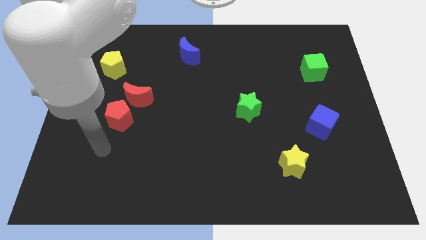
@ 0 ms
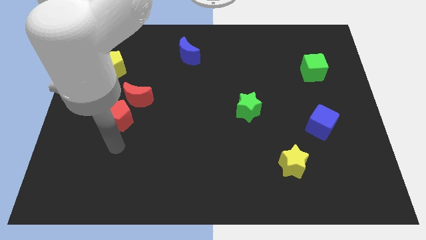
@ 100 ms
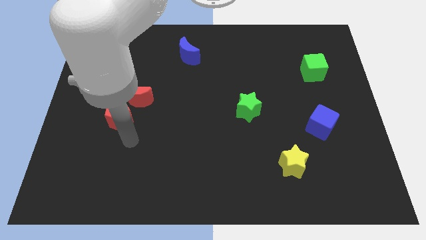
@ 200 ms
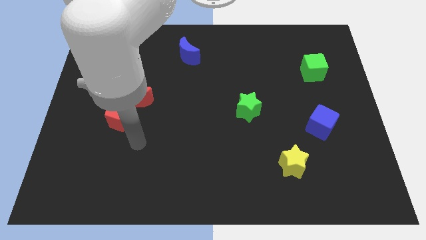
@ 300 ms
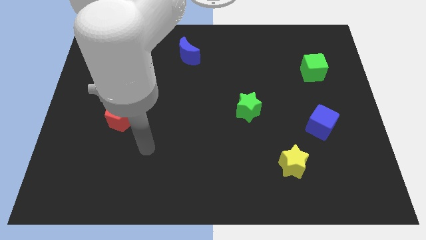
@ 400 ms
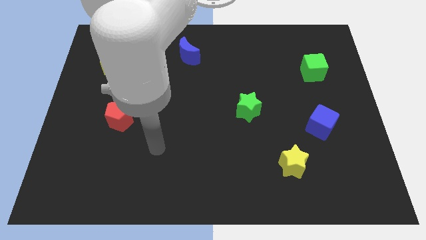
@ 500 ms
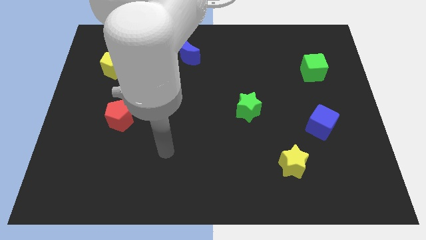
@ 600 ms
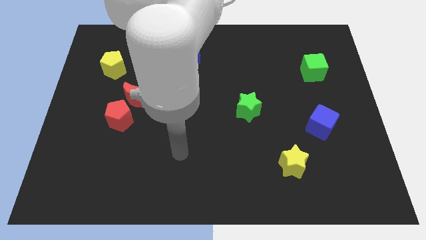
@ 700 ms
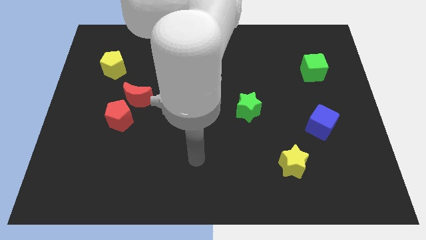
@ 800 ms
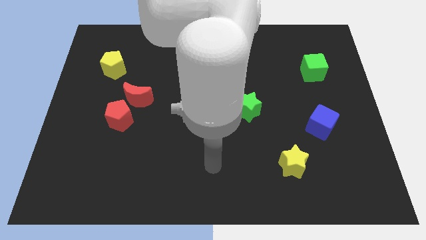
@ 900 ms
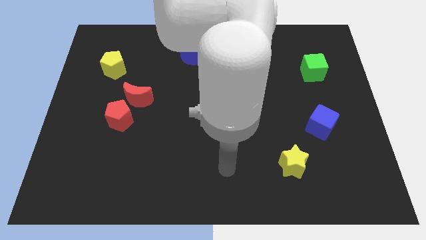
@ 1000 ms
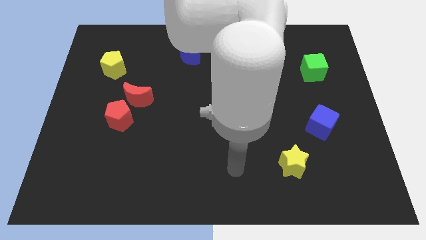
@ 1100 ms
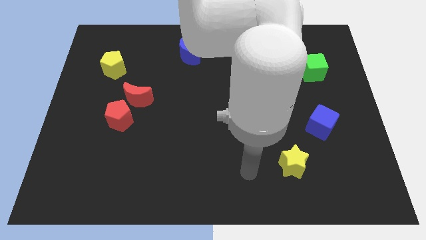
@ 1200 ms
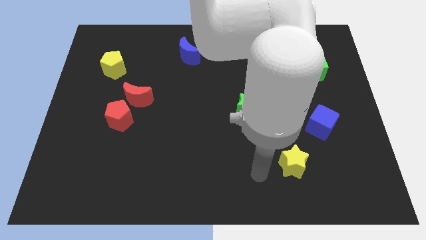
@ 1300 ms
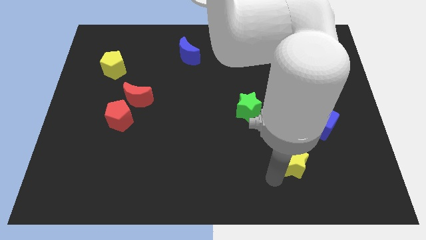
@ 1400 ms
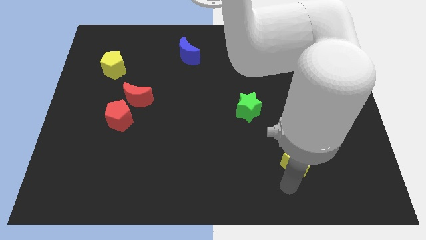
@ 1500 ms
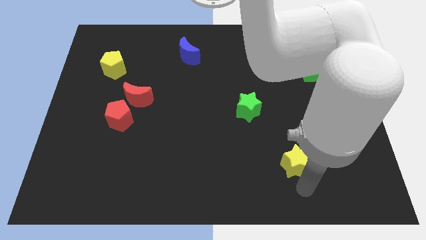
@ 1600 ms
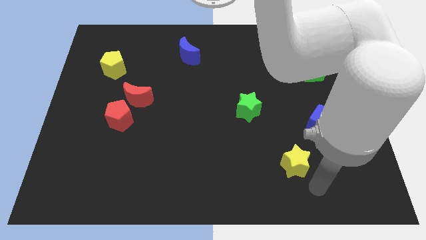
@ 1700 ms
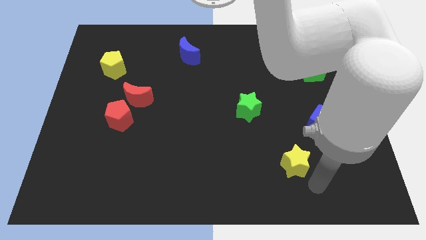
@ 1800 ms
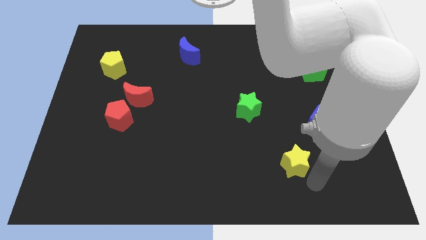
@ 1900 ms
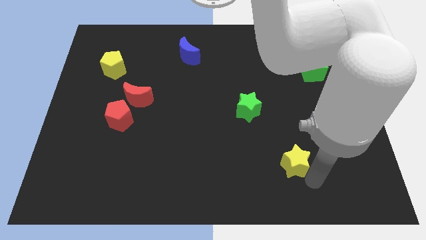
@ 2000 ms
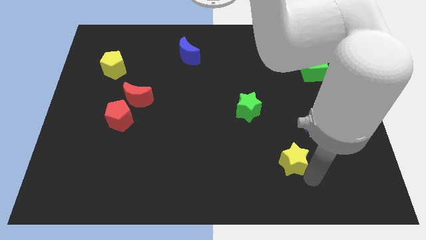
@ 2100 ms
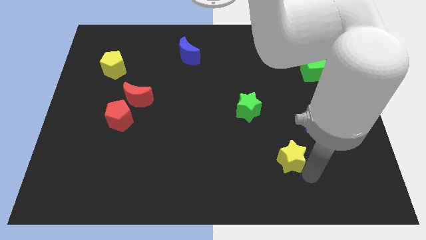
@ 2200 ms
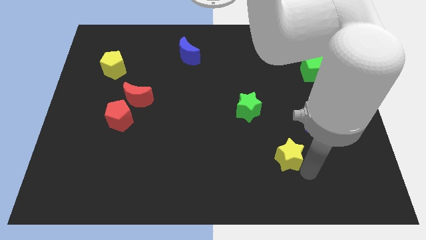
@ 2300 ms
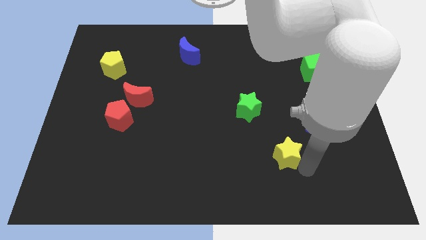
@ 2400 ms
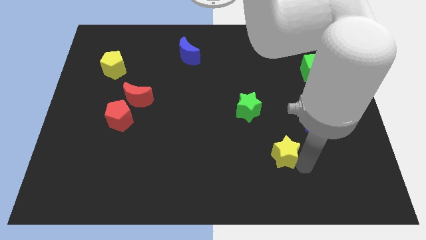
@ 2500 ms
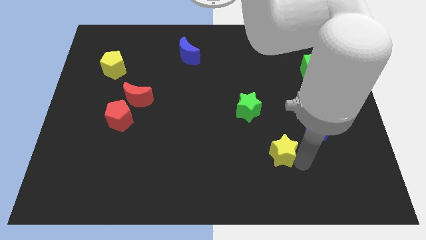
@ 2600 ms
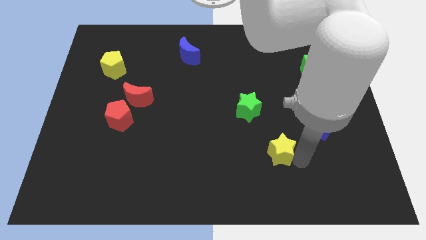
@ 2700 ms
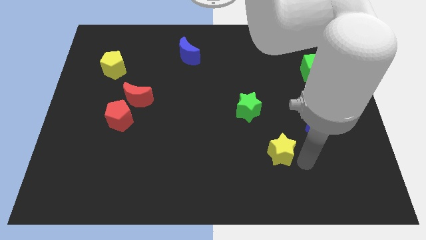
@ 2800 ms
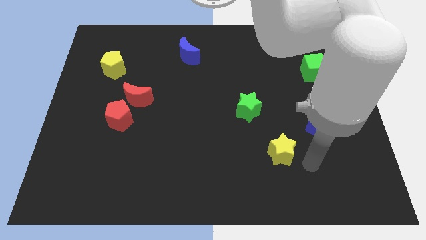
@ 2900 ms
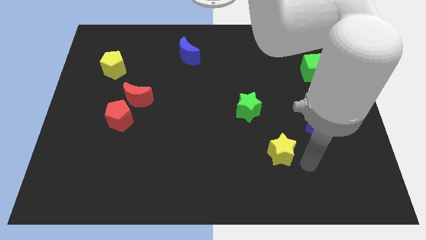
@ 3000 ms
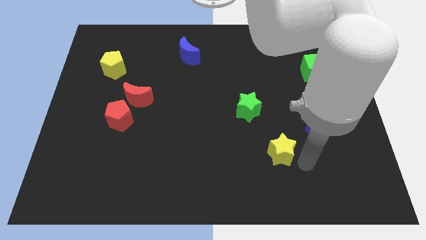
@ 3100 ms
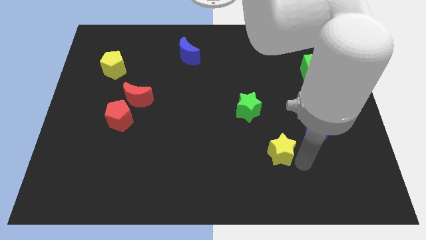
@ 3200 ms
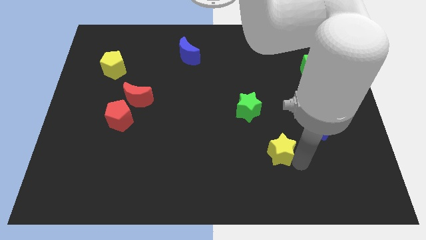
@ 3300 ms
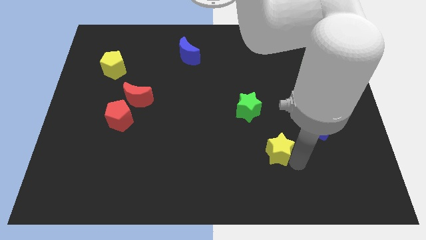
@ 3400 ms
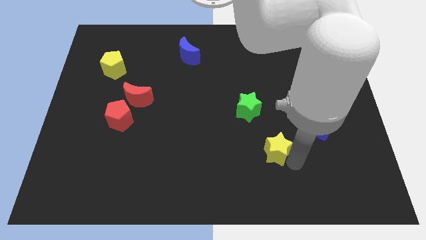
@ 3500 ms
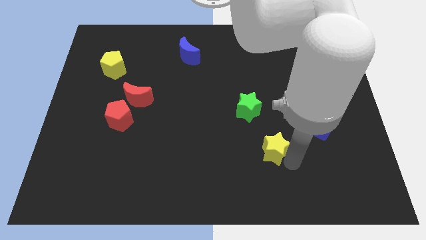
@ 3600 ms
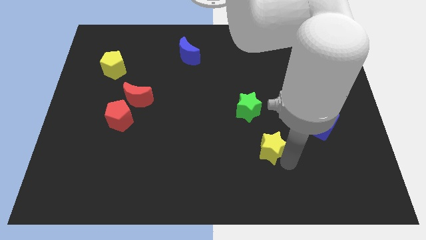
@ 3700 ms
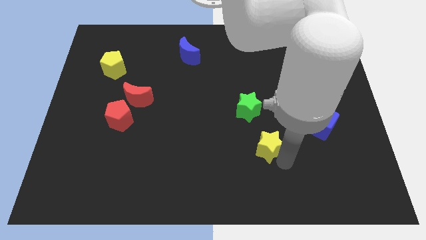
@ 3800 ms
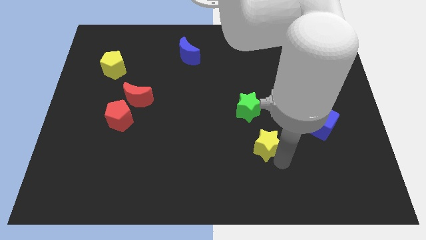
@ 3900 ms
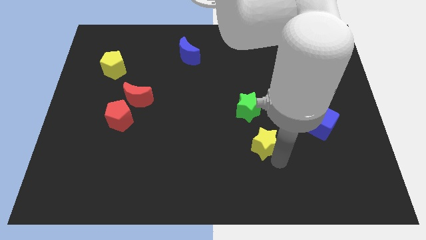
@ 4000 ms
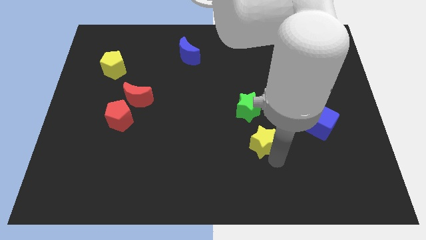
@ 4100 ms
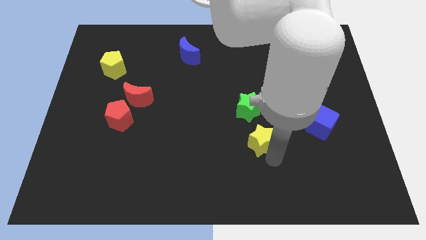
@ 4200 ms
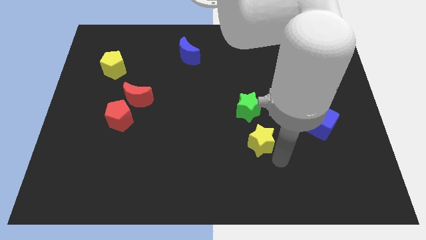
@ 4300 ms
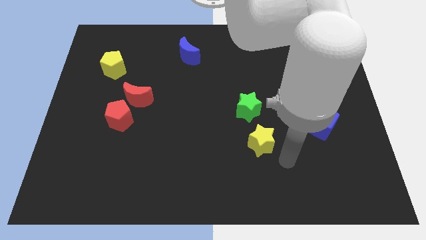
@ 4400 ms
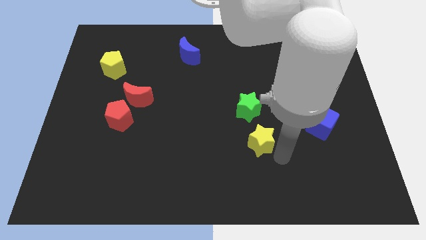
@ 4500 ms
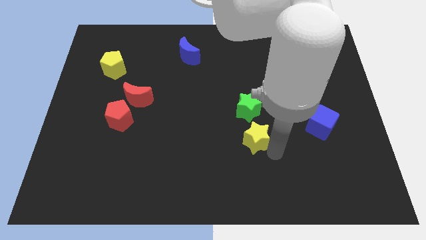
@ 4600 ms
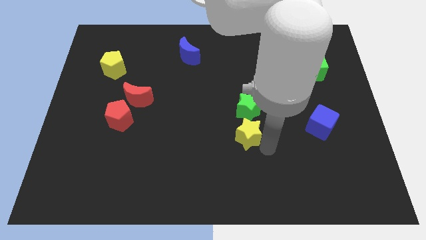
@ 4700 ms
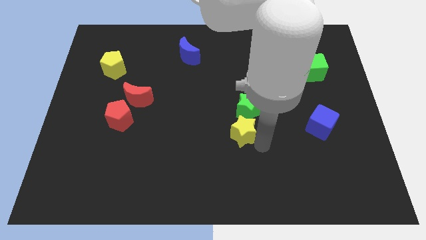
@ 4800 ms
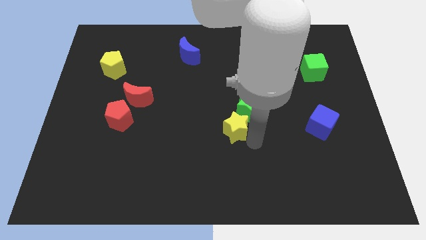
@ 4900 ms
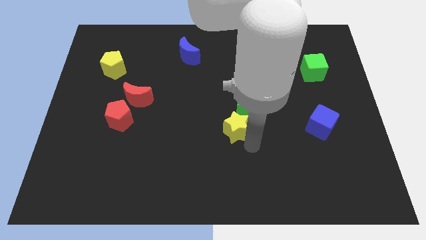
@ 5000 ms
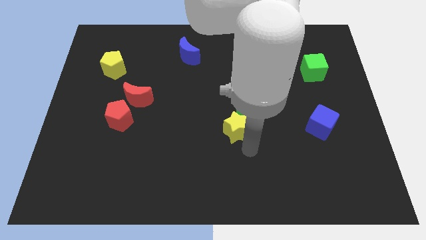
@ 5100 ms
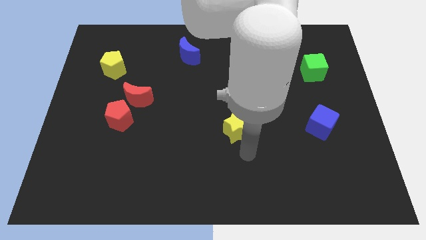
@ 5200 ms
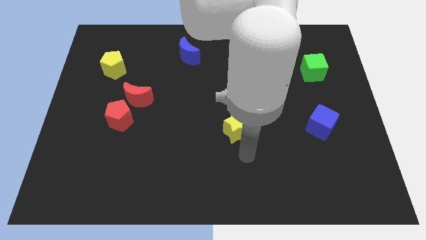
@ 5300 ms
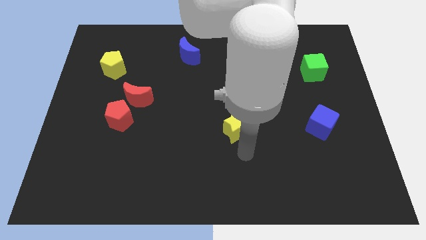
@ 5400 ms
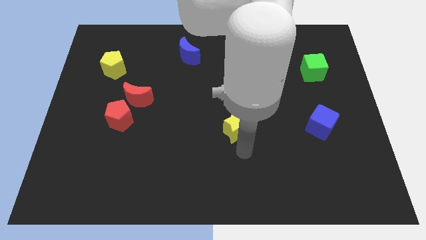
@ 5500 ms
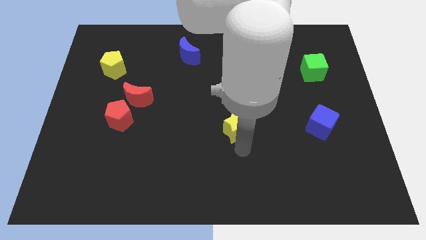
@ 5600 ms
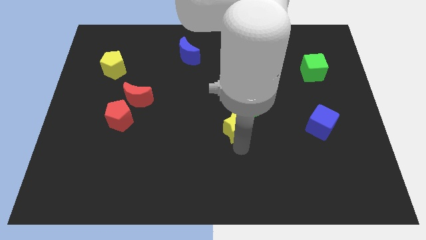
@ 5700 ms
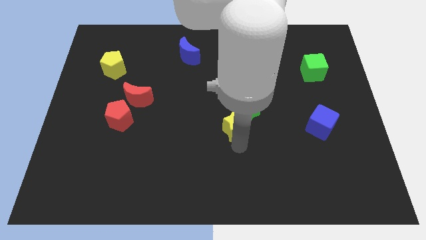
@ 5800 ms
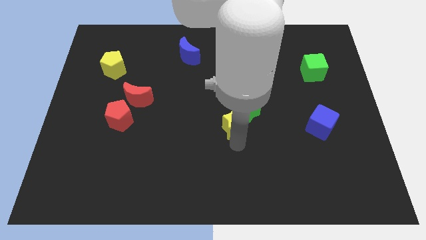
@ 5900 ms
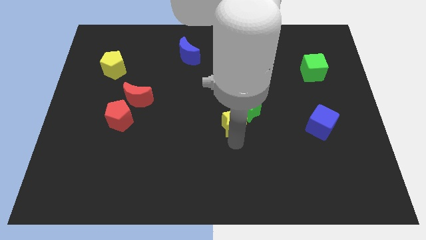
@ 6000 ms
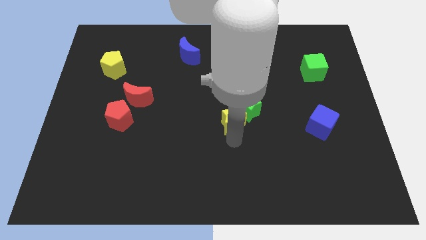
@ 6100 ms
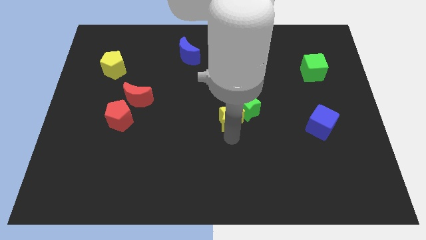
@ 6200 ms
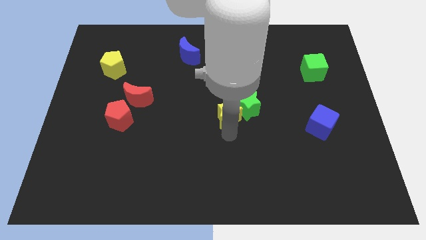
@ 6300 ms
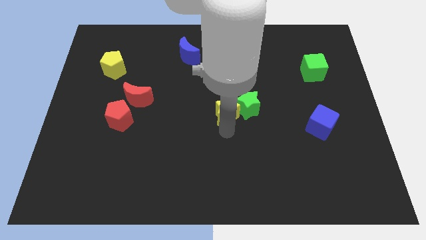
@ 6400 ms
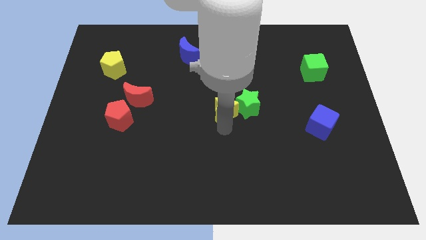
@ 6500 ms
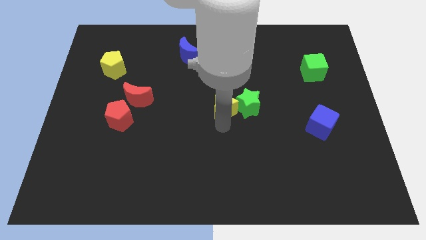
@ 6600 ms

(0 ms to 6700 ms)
put the yellow star to the top left of the green star
